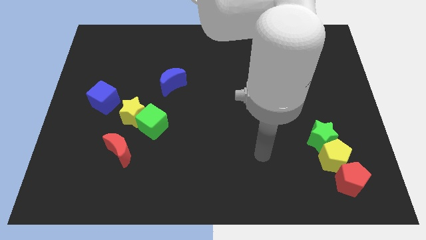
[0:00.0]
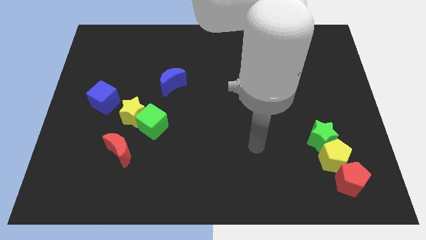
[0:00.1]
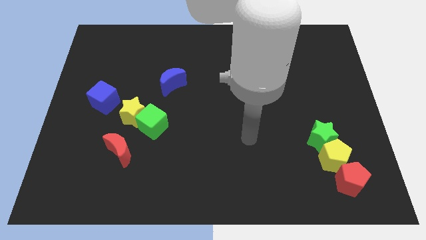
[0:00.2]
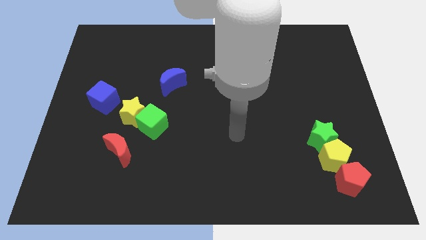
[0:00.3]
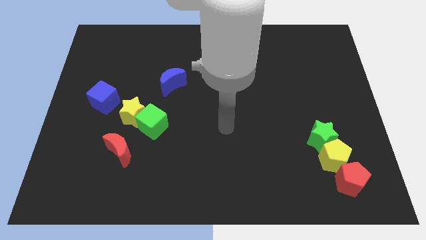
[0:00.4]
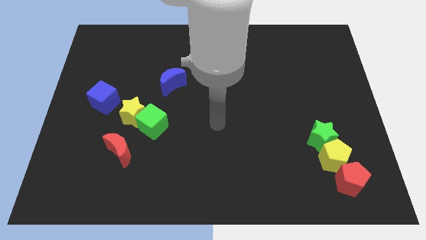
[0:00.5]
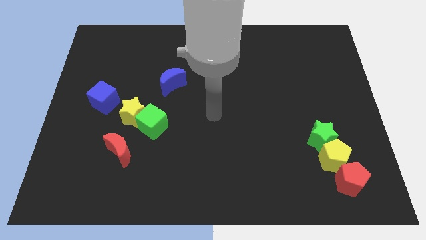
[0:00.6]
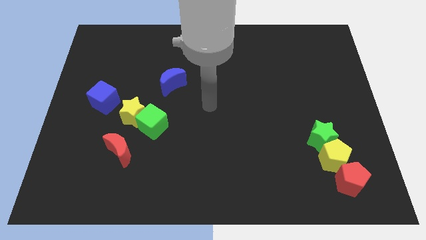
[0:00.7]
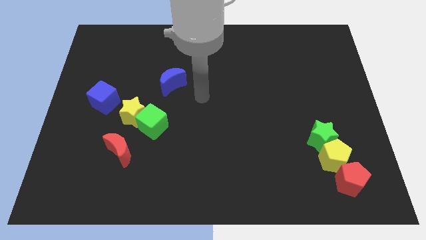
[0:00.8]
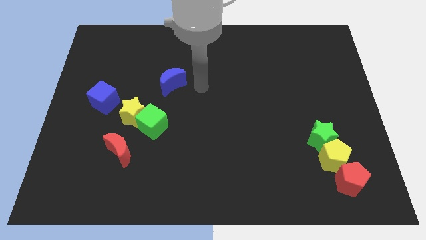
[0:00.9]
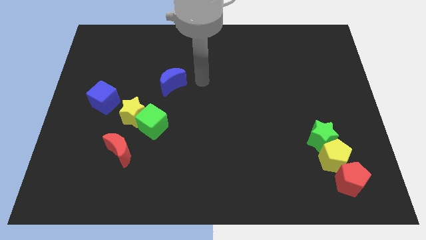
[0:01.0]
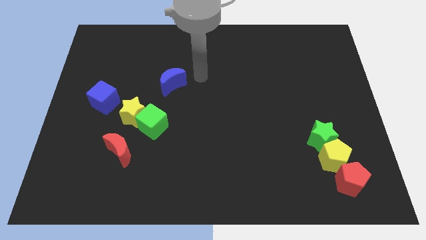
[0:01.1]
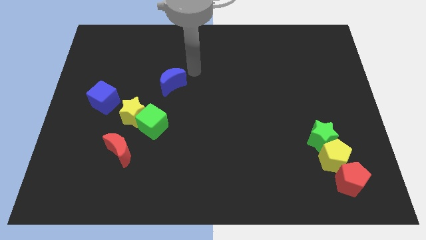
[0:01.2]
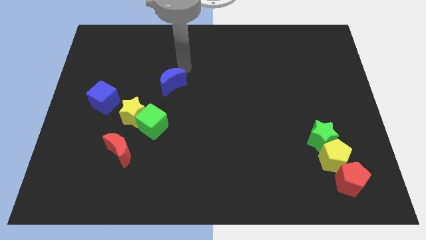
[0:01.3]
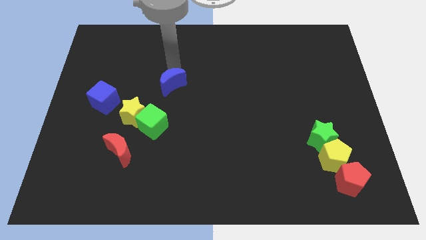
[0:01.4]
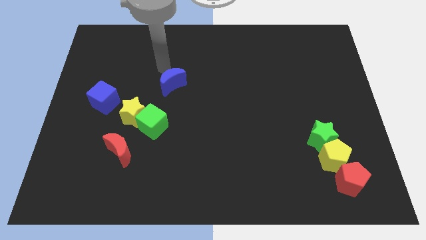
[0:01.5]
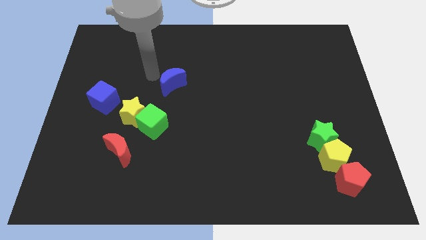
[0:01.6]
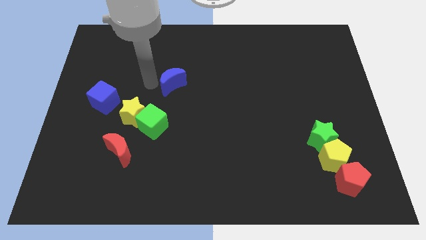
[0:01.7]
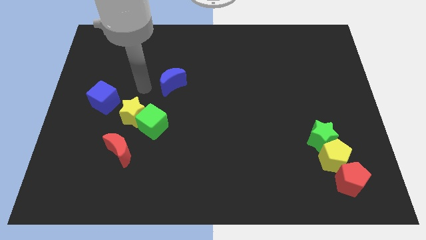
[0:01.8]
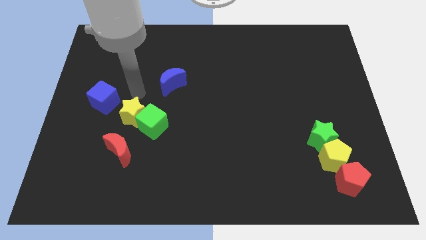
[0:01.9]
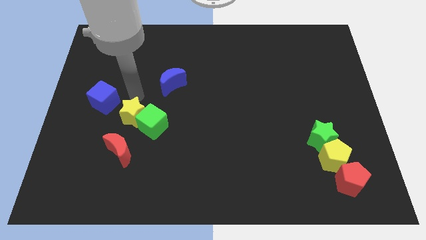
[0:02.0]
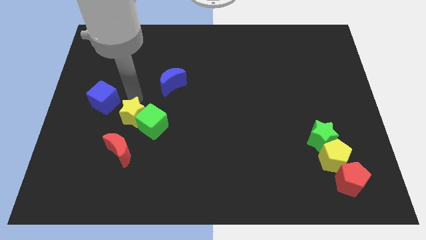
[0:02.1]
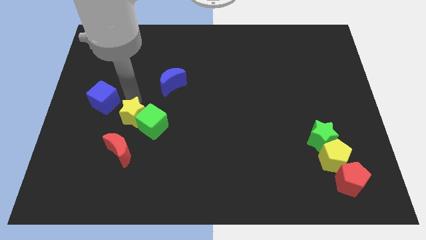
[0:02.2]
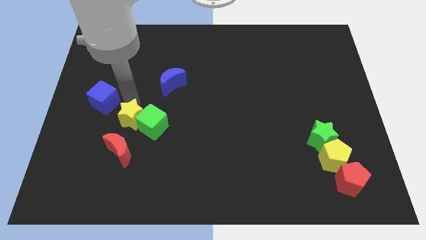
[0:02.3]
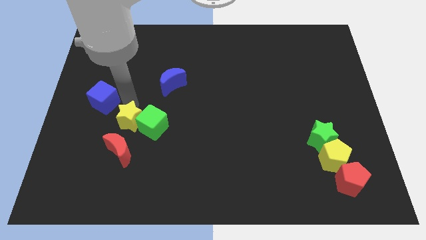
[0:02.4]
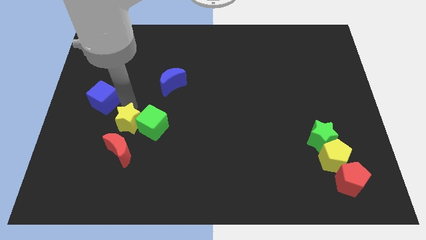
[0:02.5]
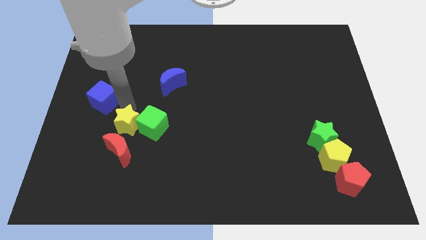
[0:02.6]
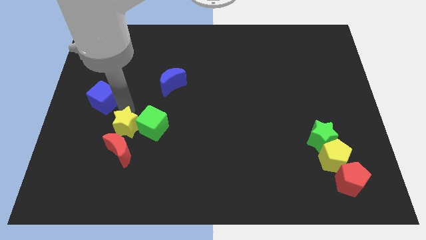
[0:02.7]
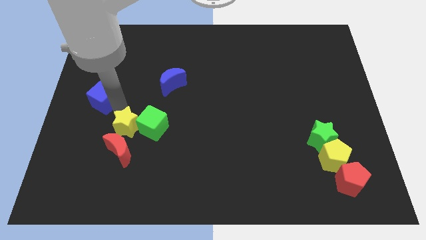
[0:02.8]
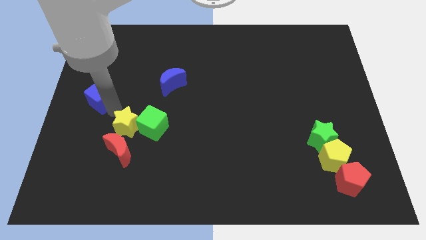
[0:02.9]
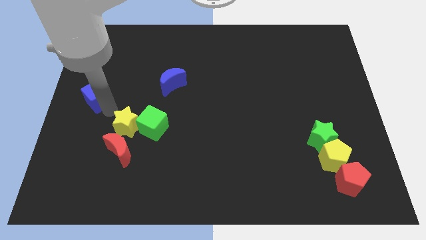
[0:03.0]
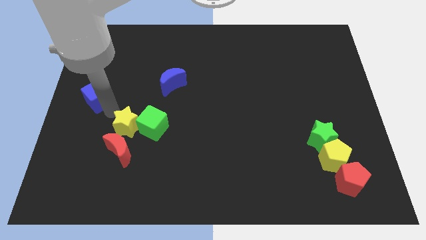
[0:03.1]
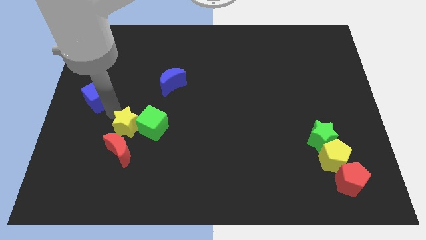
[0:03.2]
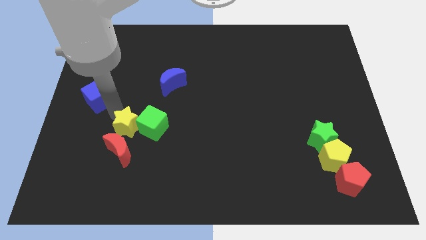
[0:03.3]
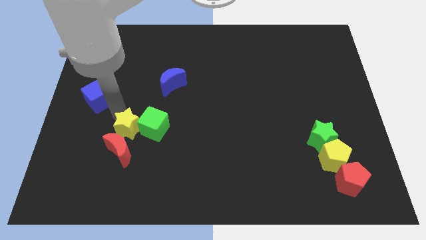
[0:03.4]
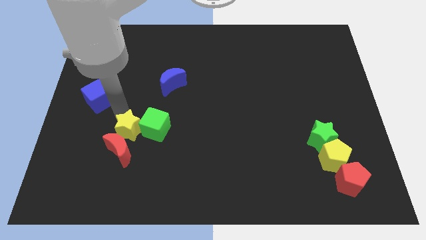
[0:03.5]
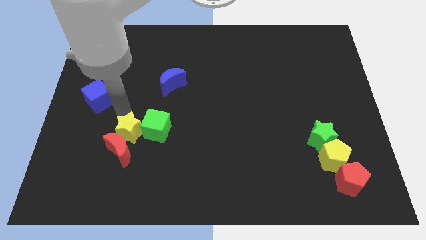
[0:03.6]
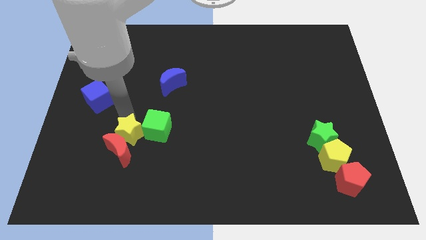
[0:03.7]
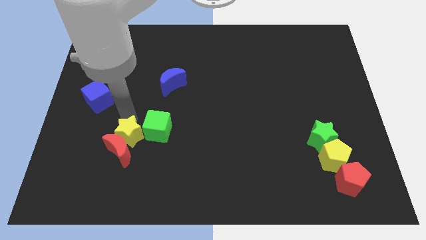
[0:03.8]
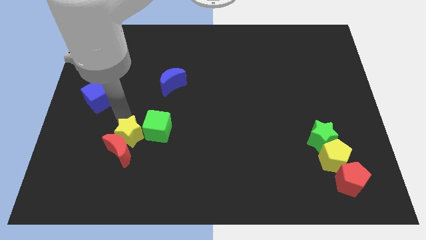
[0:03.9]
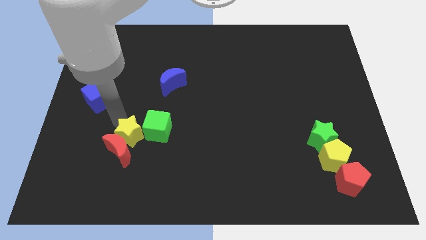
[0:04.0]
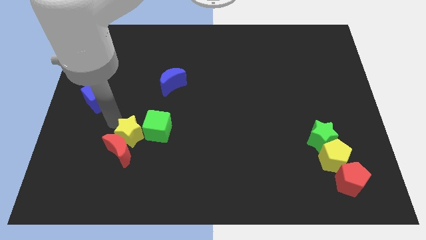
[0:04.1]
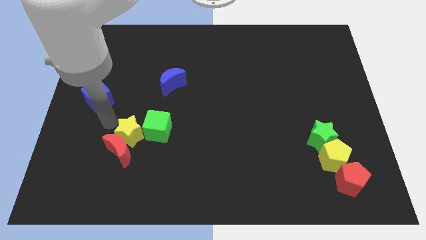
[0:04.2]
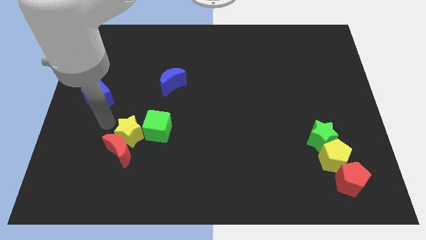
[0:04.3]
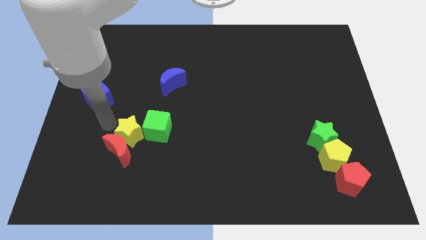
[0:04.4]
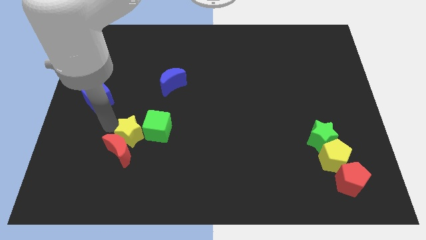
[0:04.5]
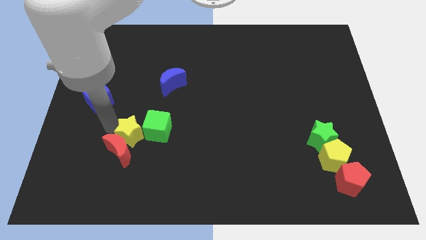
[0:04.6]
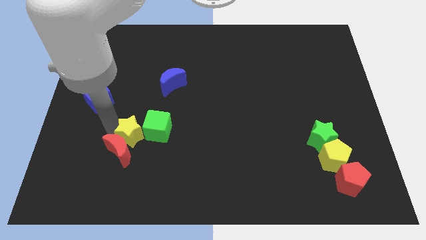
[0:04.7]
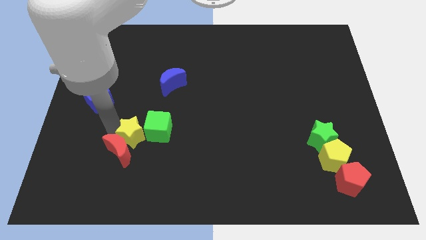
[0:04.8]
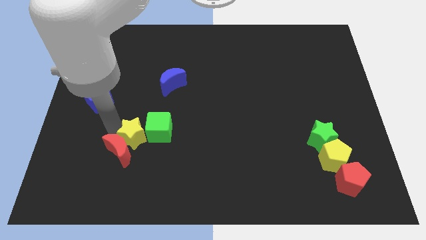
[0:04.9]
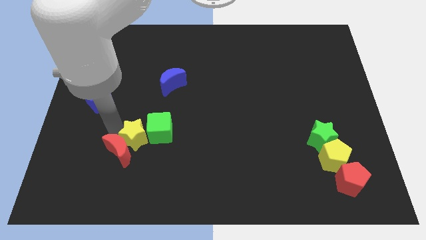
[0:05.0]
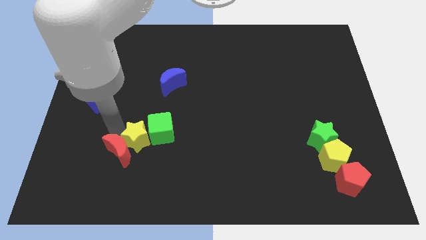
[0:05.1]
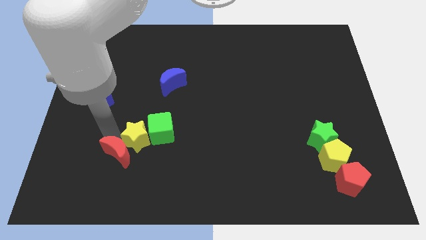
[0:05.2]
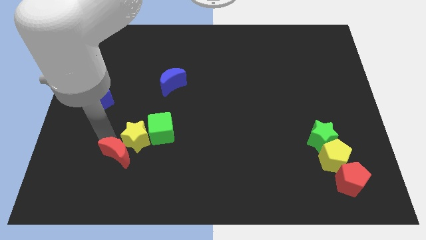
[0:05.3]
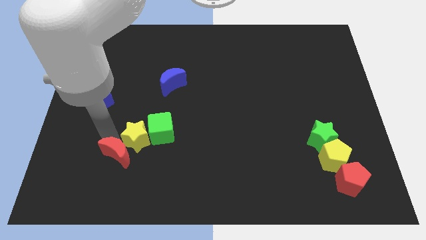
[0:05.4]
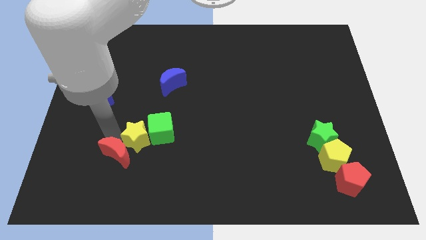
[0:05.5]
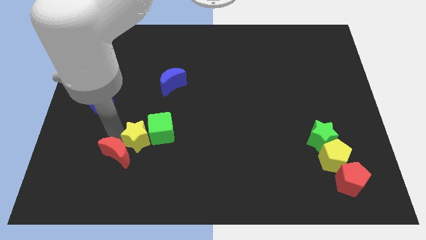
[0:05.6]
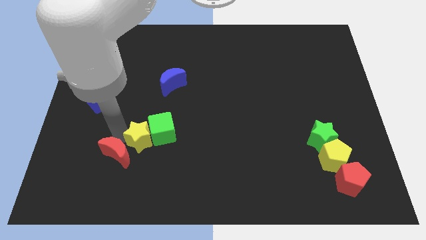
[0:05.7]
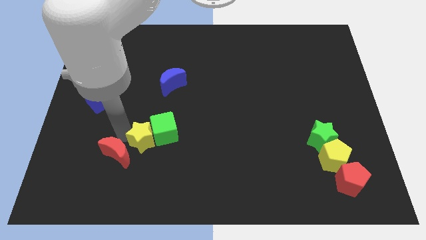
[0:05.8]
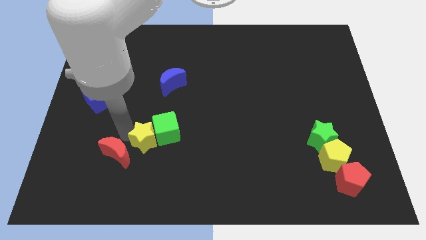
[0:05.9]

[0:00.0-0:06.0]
slightly slide the yellow star downwards and to the right diagonally

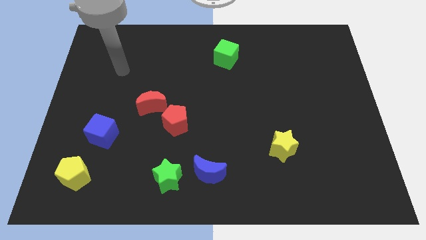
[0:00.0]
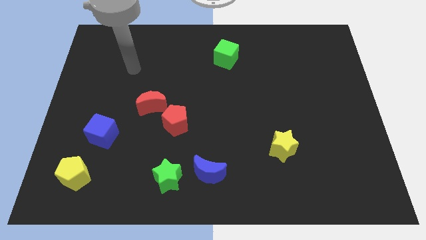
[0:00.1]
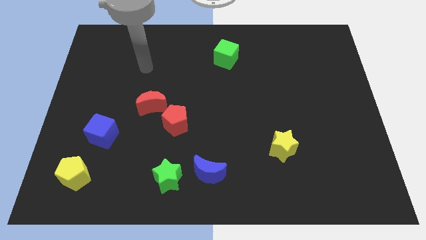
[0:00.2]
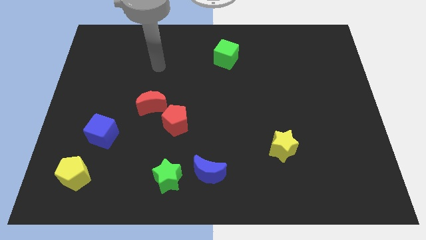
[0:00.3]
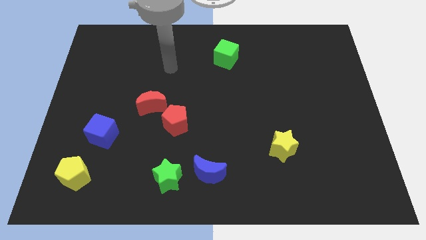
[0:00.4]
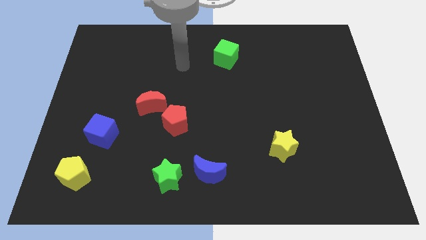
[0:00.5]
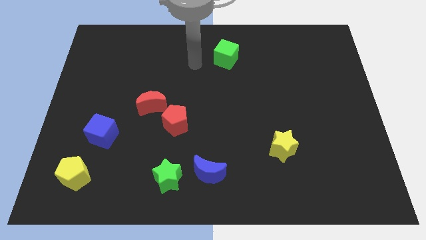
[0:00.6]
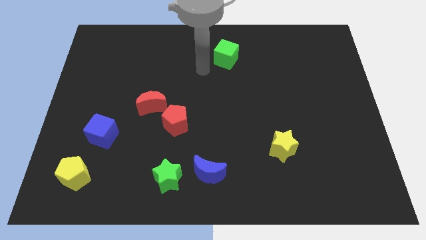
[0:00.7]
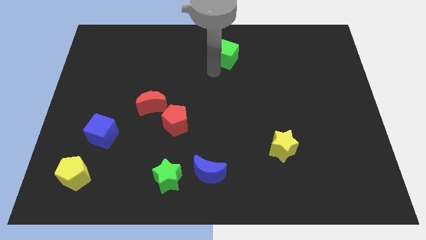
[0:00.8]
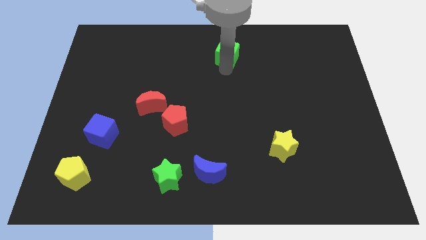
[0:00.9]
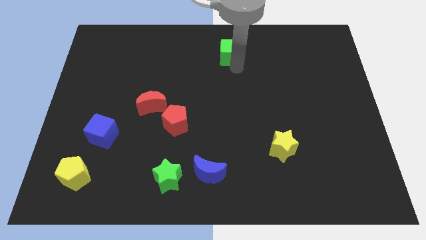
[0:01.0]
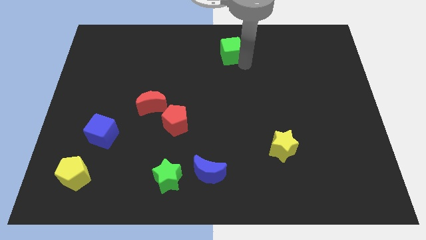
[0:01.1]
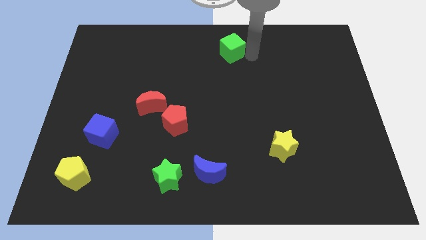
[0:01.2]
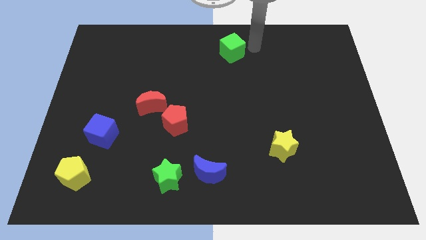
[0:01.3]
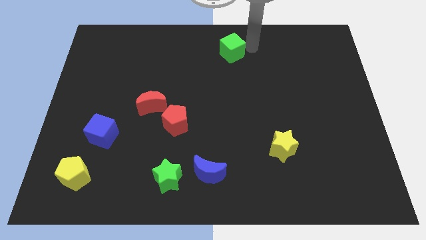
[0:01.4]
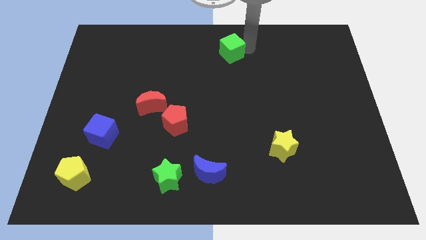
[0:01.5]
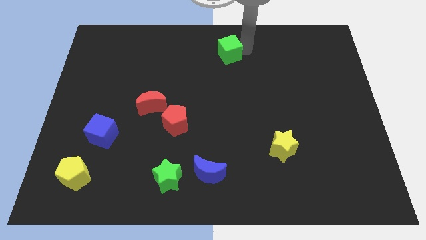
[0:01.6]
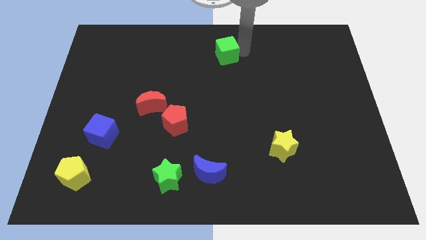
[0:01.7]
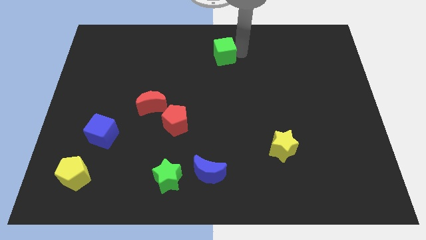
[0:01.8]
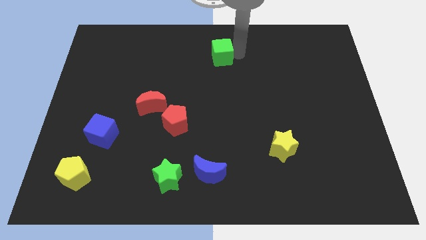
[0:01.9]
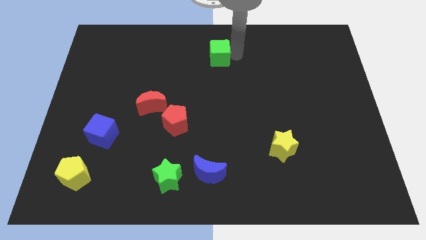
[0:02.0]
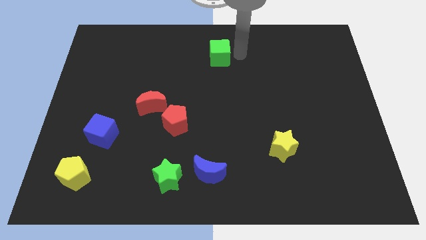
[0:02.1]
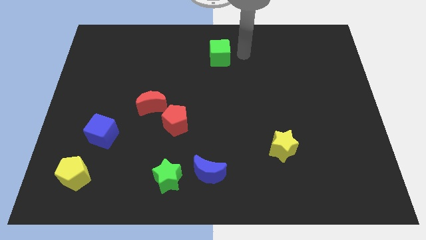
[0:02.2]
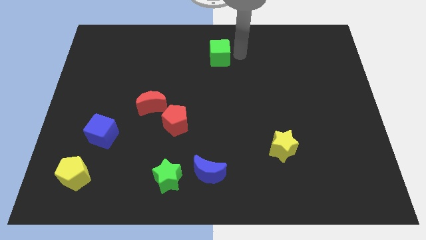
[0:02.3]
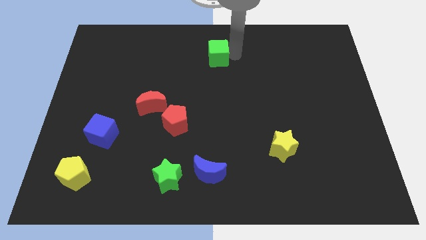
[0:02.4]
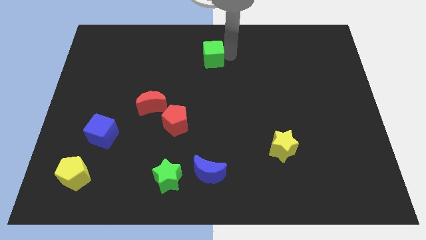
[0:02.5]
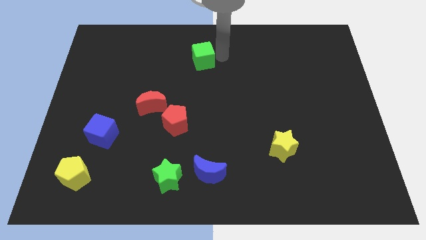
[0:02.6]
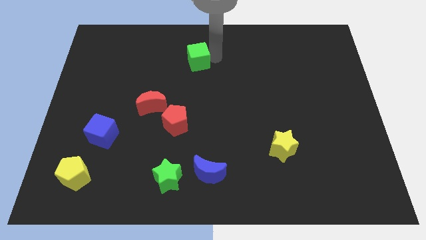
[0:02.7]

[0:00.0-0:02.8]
move the green cube a bit left
